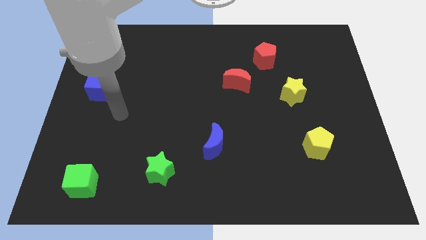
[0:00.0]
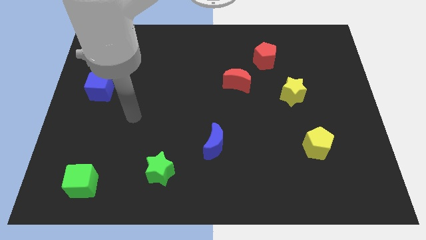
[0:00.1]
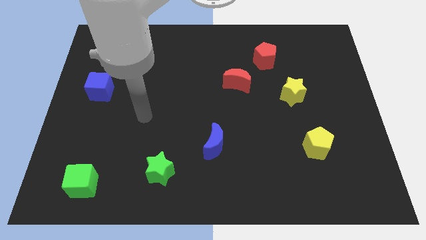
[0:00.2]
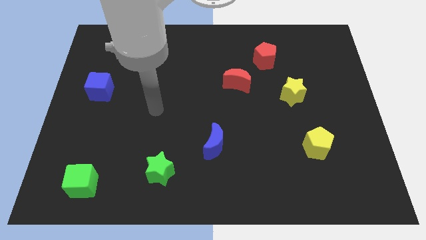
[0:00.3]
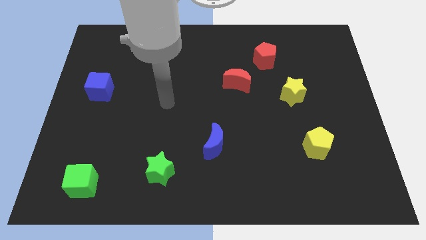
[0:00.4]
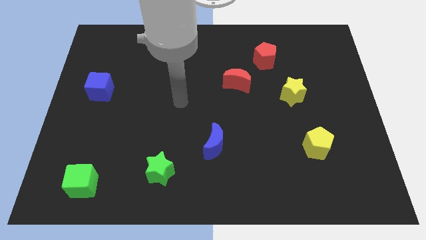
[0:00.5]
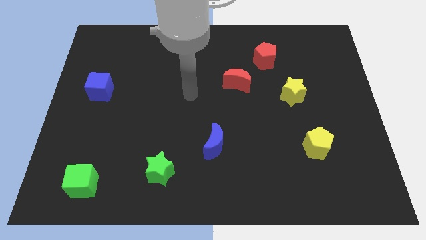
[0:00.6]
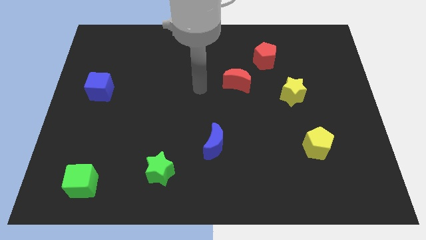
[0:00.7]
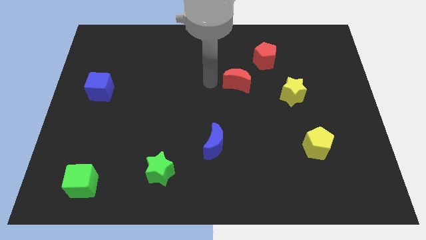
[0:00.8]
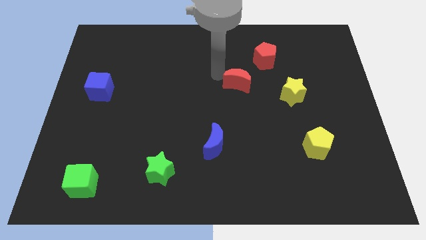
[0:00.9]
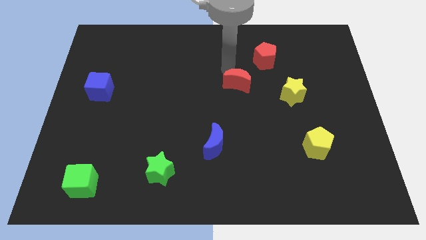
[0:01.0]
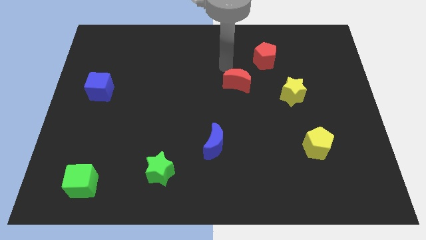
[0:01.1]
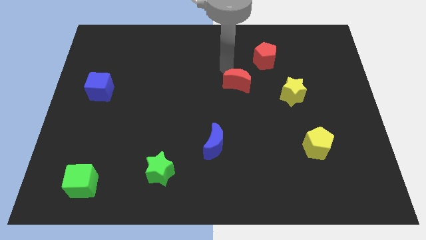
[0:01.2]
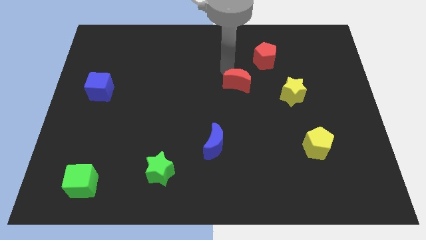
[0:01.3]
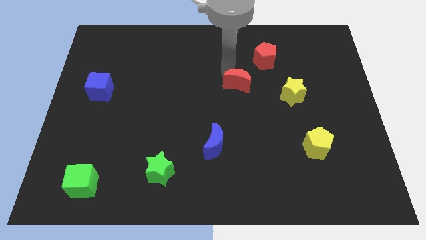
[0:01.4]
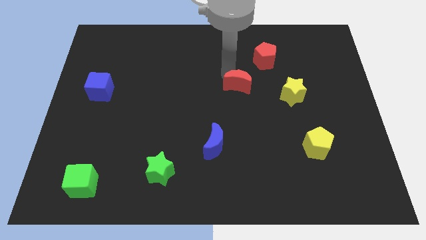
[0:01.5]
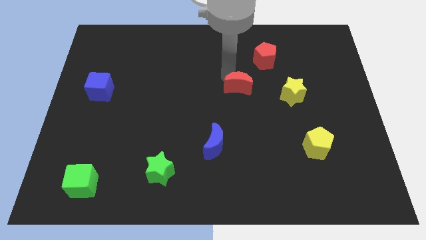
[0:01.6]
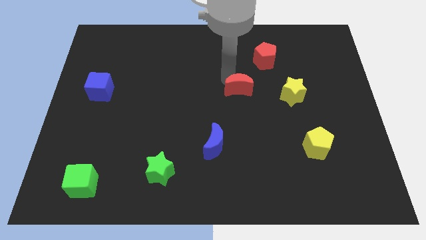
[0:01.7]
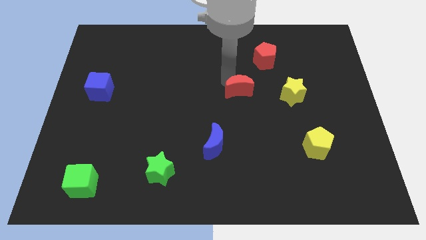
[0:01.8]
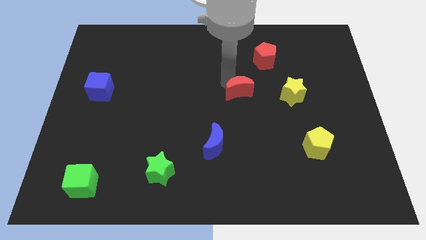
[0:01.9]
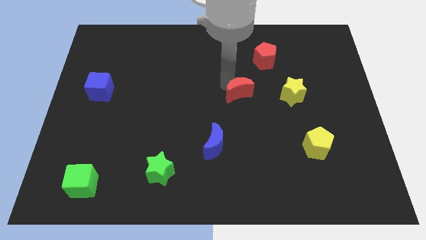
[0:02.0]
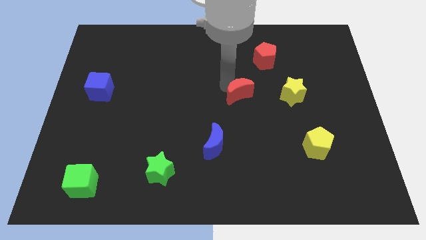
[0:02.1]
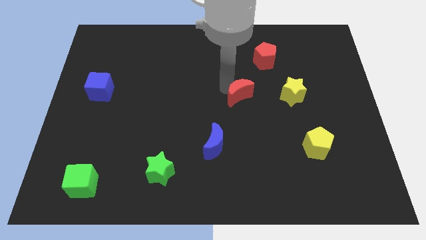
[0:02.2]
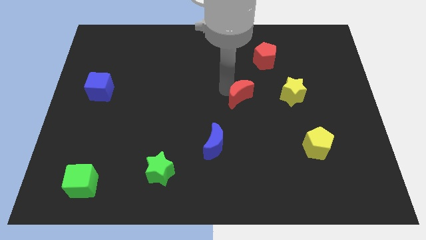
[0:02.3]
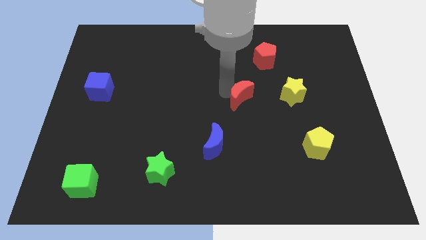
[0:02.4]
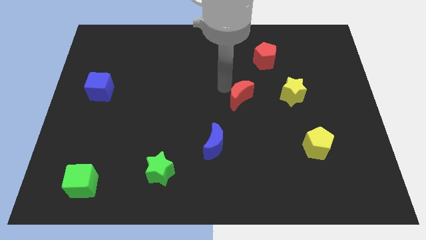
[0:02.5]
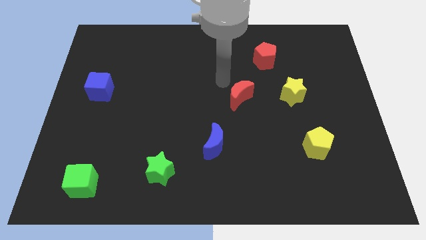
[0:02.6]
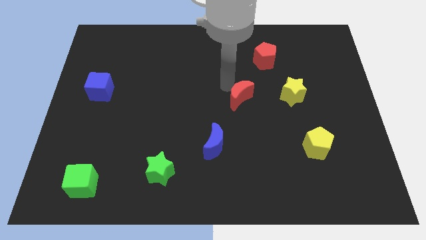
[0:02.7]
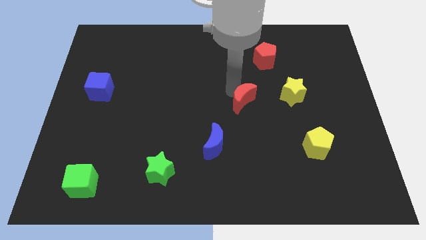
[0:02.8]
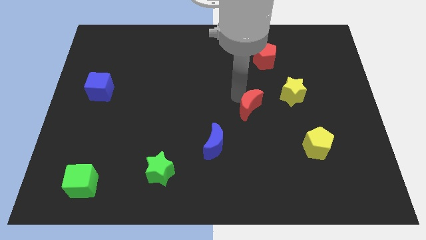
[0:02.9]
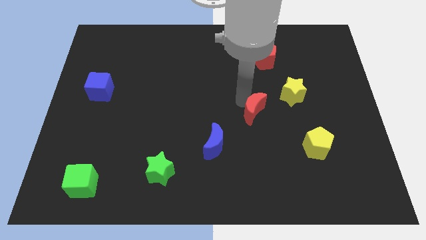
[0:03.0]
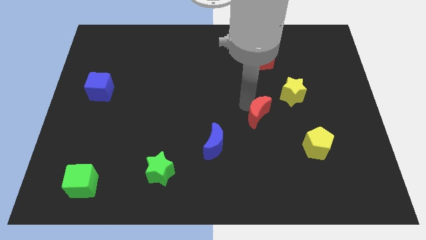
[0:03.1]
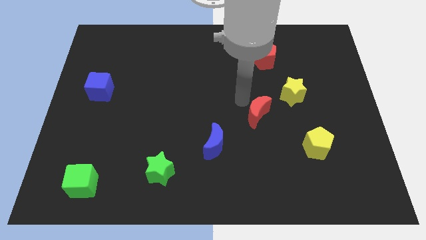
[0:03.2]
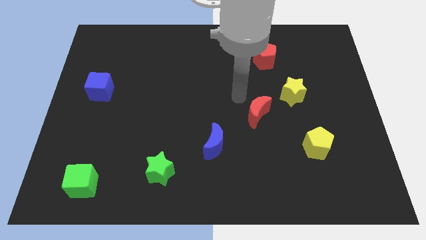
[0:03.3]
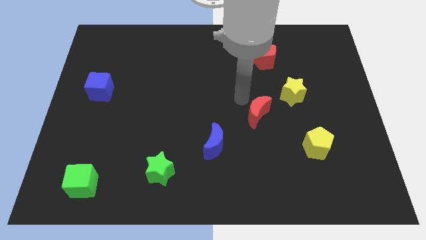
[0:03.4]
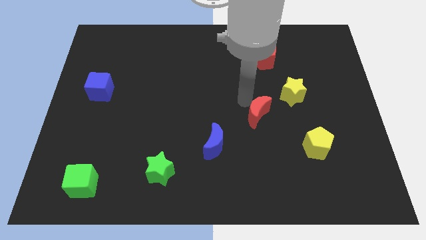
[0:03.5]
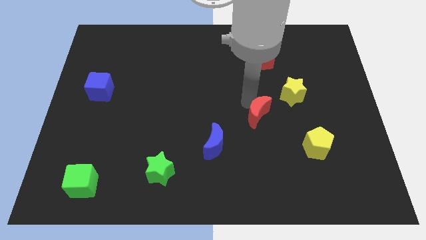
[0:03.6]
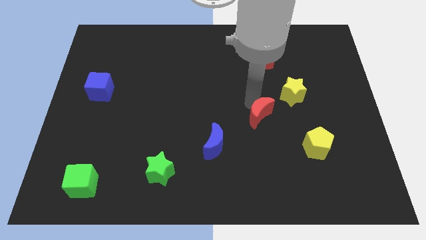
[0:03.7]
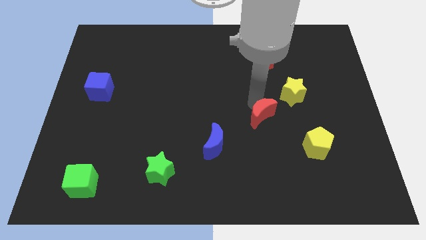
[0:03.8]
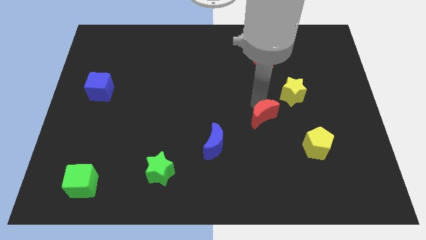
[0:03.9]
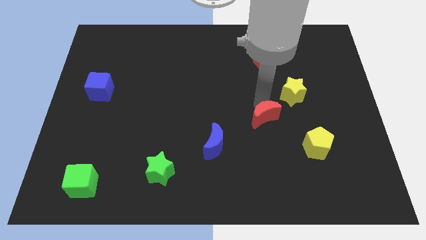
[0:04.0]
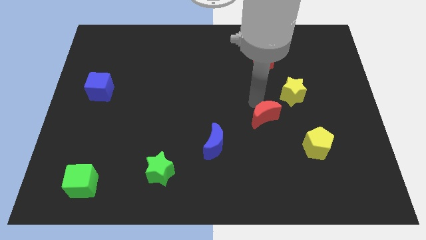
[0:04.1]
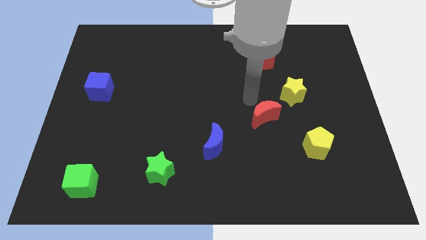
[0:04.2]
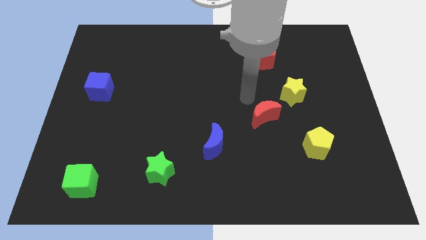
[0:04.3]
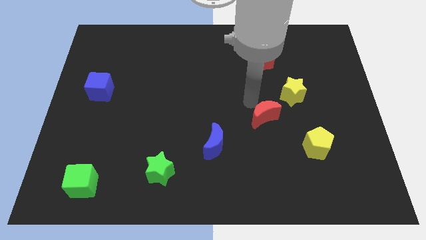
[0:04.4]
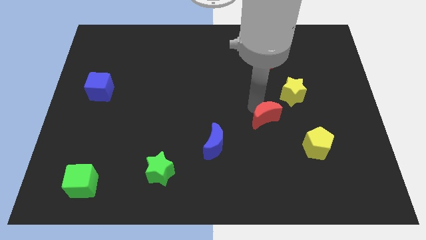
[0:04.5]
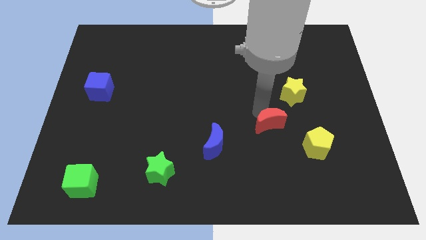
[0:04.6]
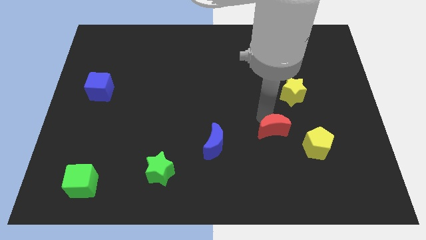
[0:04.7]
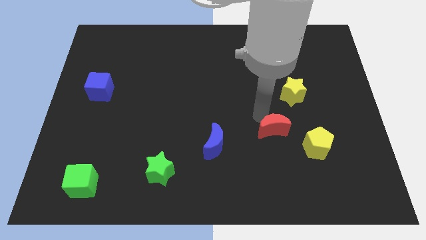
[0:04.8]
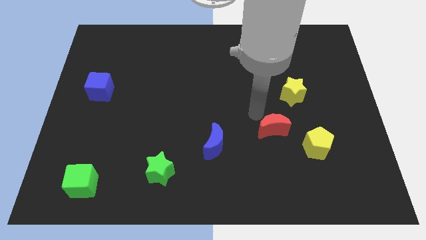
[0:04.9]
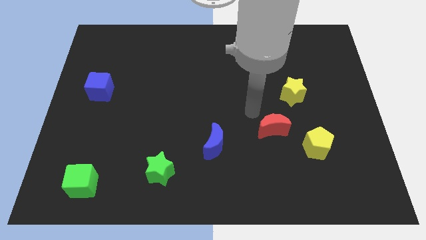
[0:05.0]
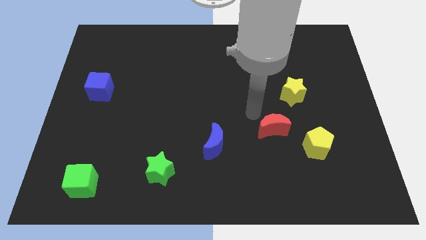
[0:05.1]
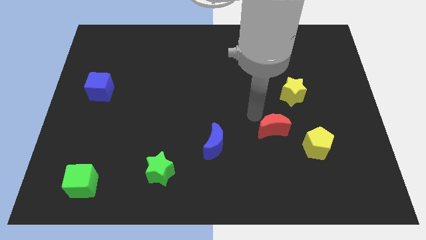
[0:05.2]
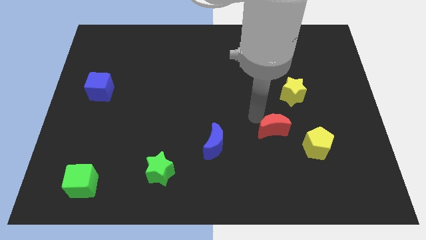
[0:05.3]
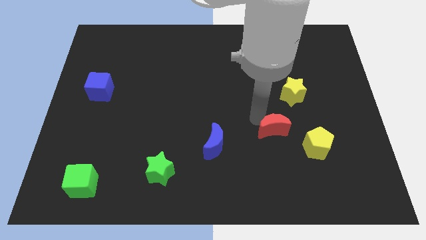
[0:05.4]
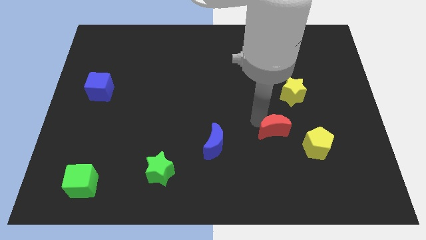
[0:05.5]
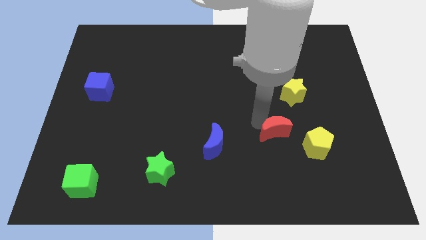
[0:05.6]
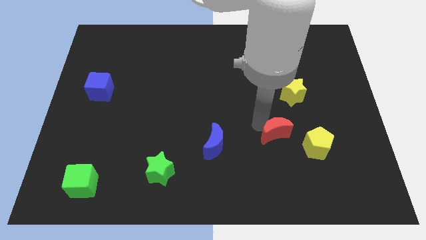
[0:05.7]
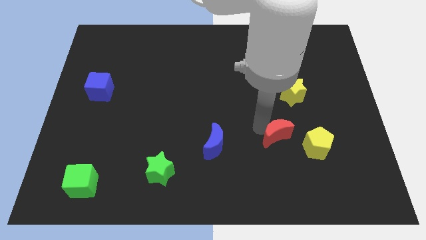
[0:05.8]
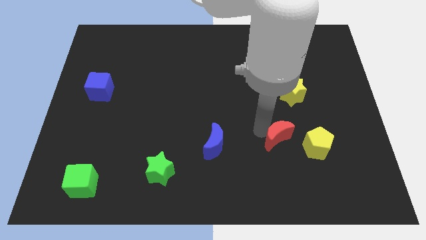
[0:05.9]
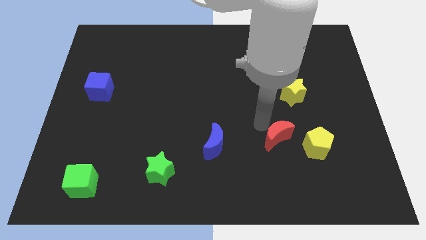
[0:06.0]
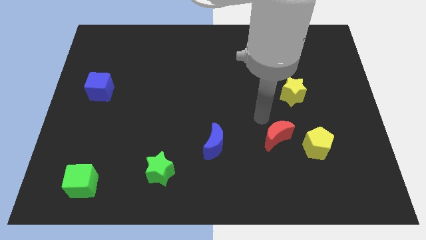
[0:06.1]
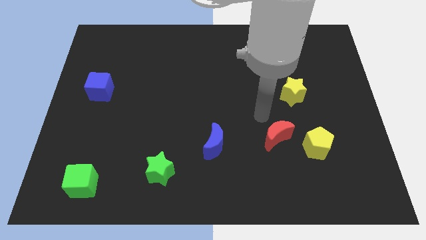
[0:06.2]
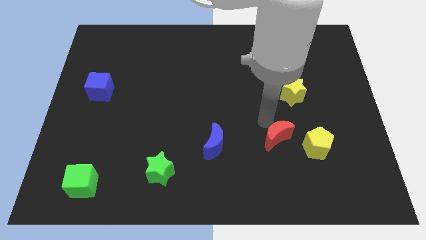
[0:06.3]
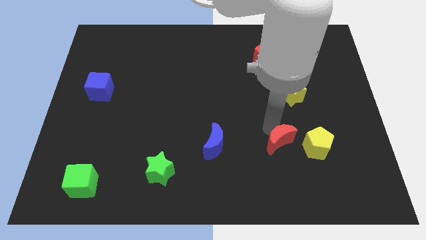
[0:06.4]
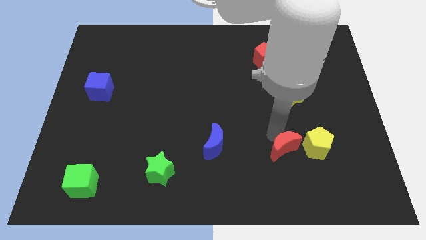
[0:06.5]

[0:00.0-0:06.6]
move the red moon to the bottom left side of the yellow pentagon
